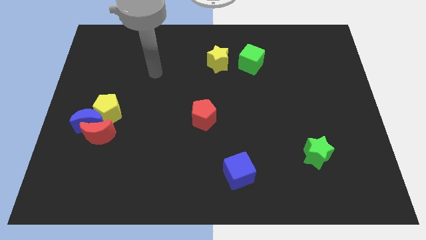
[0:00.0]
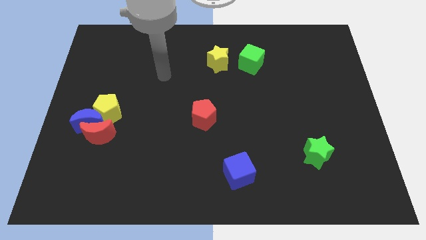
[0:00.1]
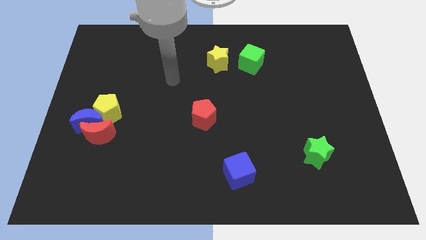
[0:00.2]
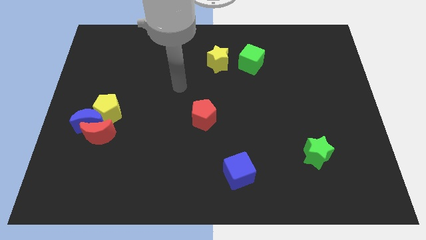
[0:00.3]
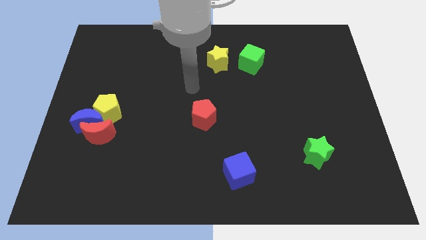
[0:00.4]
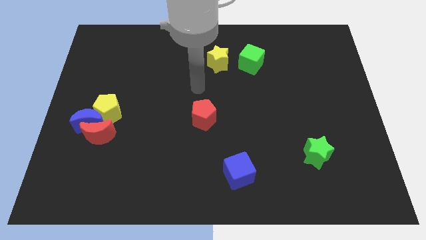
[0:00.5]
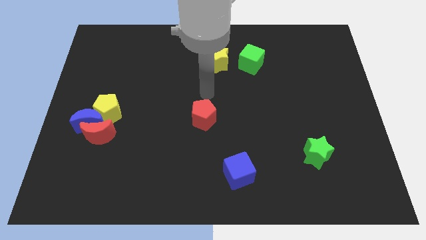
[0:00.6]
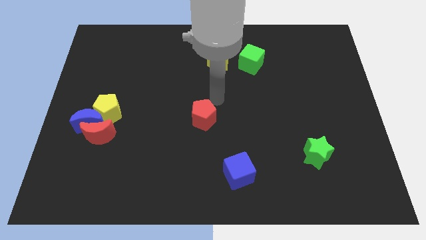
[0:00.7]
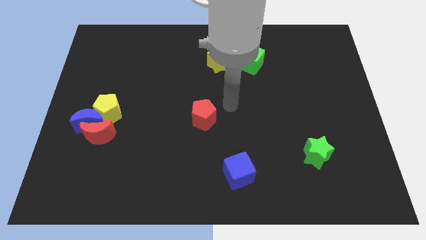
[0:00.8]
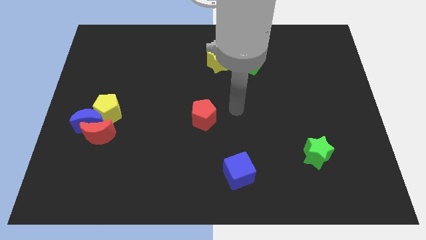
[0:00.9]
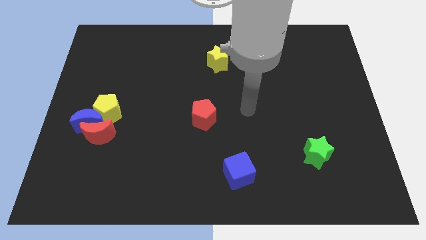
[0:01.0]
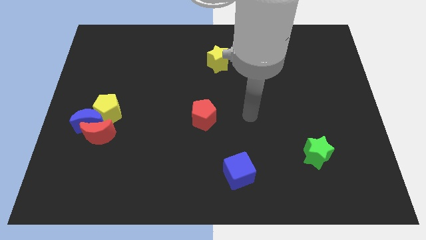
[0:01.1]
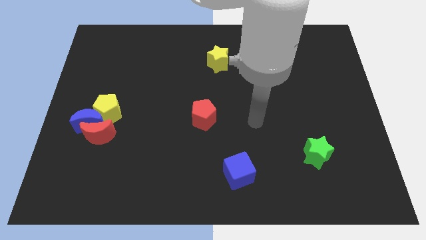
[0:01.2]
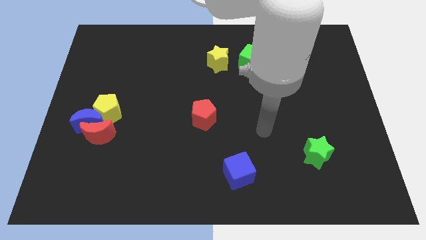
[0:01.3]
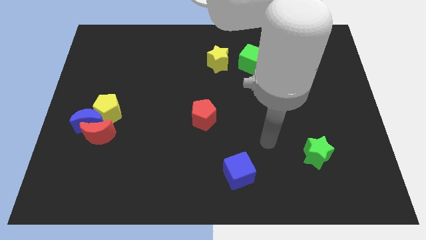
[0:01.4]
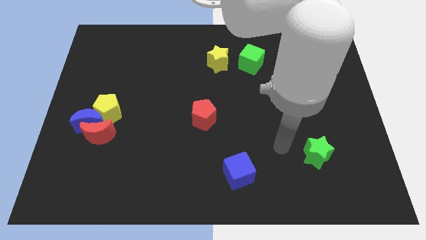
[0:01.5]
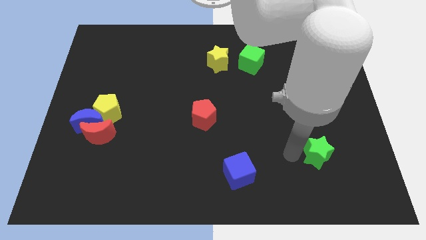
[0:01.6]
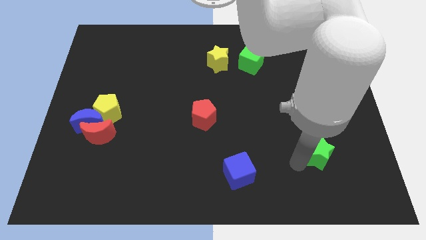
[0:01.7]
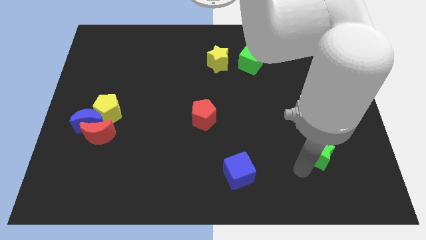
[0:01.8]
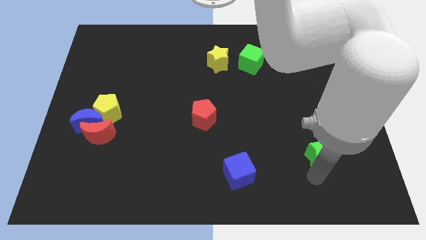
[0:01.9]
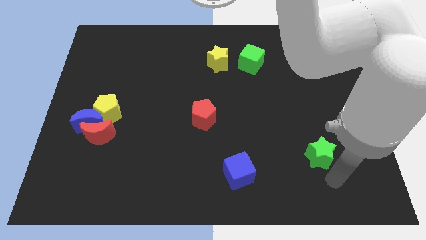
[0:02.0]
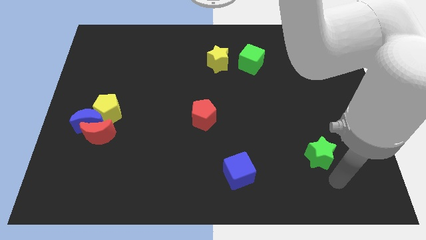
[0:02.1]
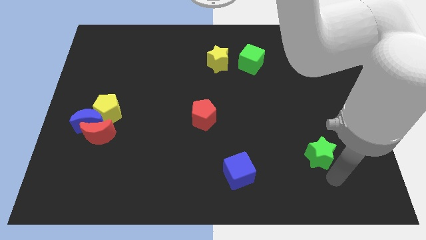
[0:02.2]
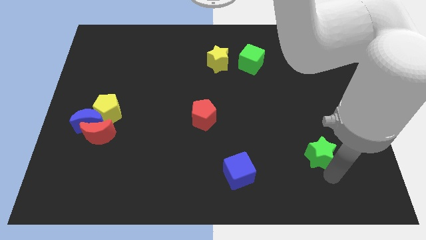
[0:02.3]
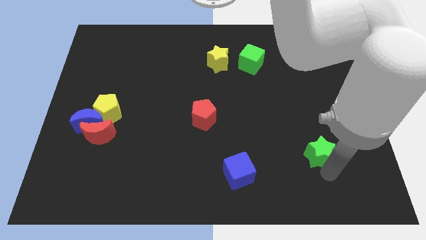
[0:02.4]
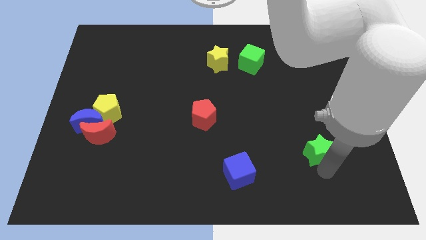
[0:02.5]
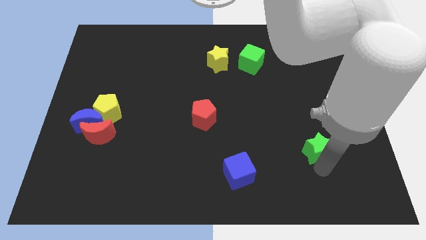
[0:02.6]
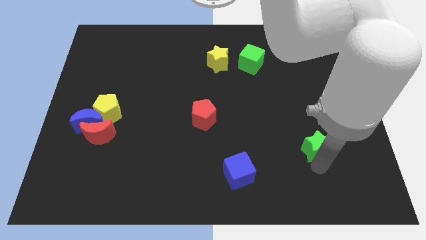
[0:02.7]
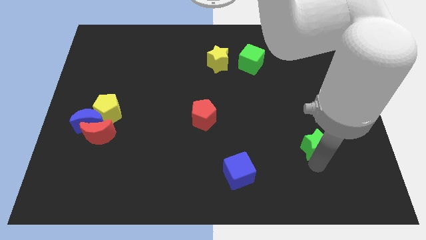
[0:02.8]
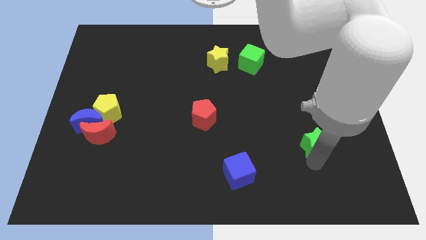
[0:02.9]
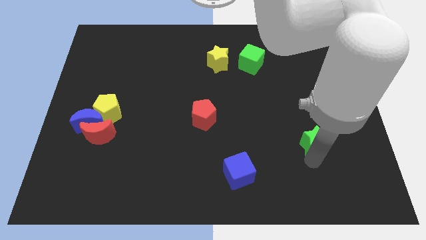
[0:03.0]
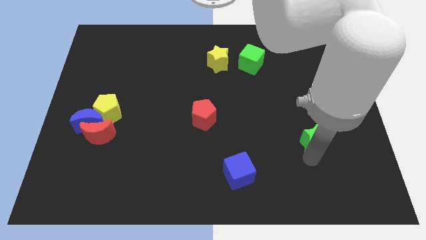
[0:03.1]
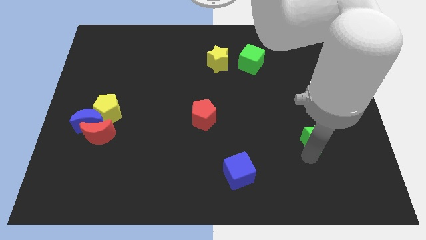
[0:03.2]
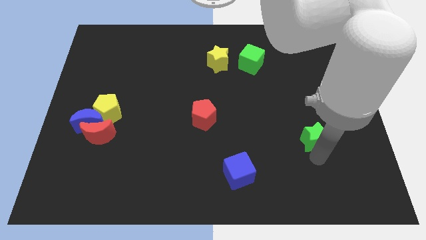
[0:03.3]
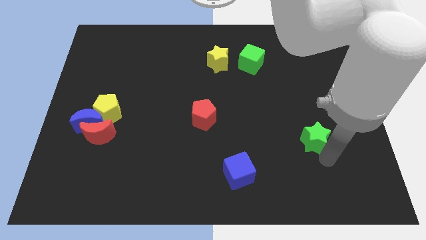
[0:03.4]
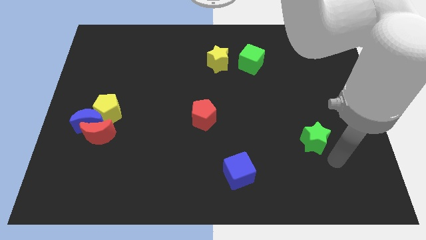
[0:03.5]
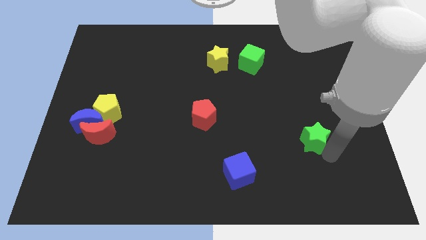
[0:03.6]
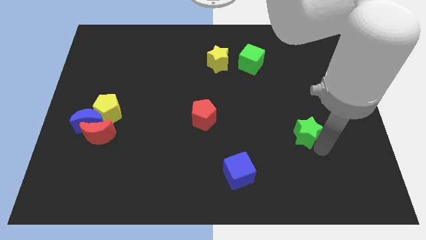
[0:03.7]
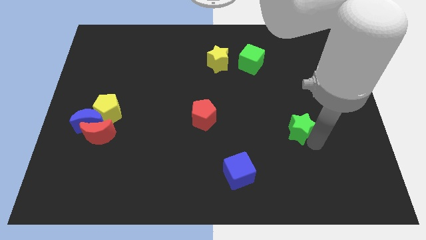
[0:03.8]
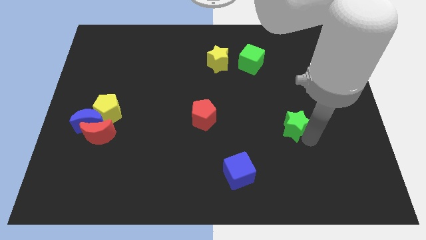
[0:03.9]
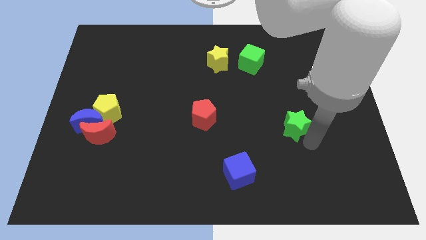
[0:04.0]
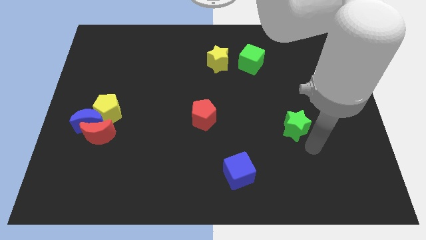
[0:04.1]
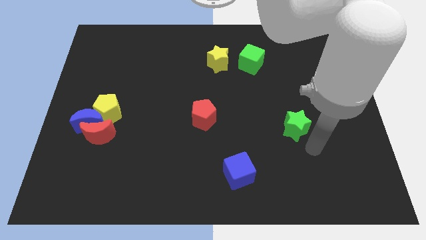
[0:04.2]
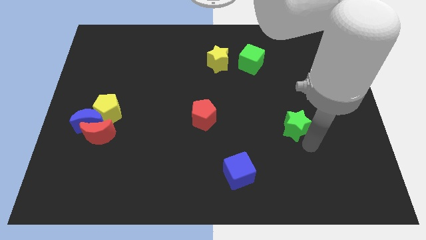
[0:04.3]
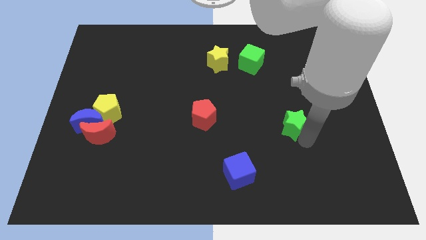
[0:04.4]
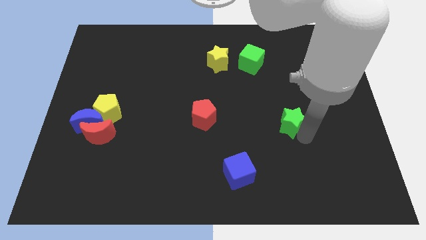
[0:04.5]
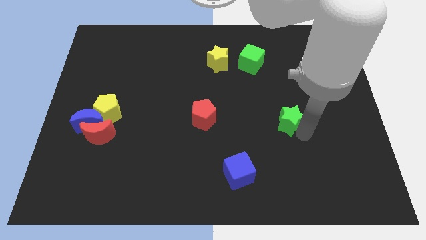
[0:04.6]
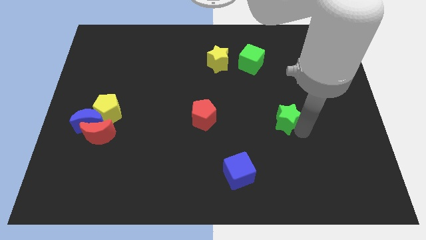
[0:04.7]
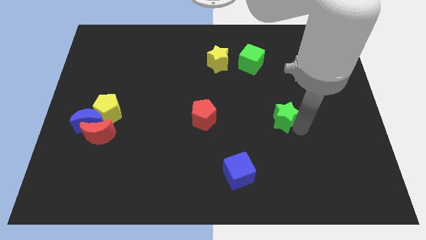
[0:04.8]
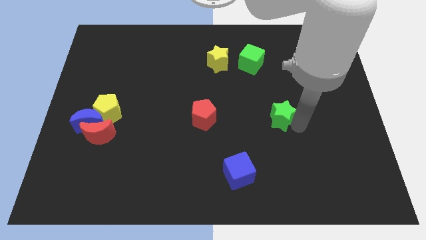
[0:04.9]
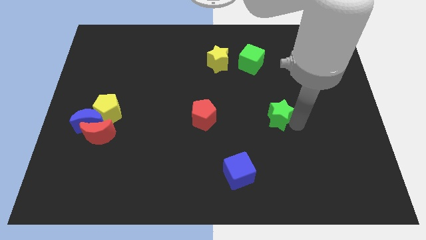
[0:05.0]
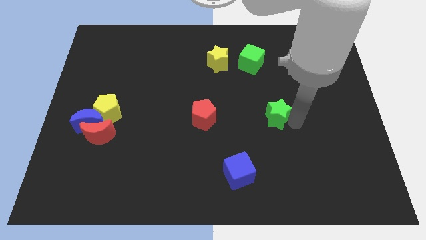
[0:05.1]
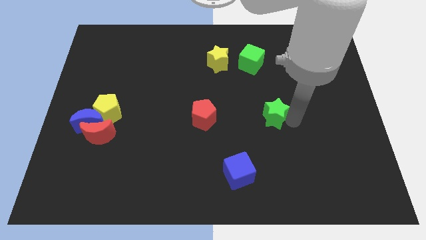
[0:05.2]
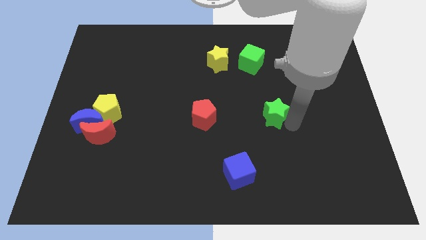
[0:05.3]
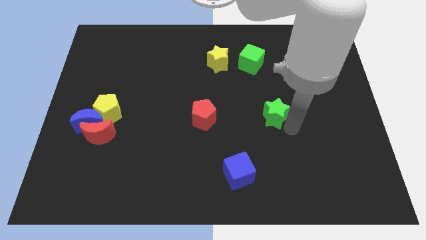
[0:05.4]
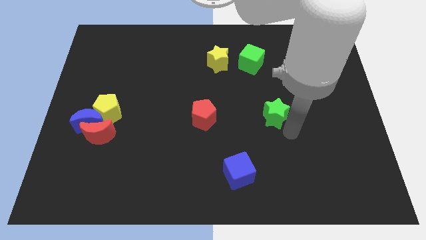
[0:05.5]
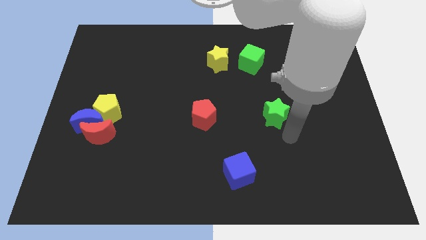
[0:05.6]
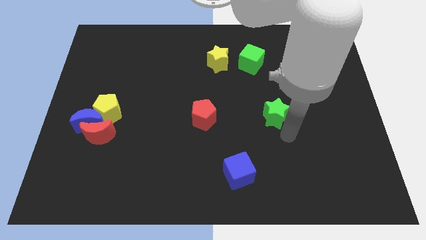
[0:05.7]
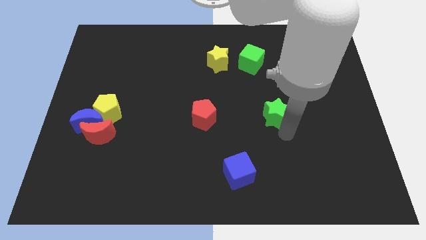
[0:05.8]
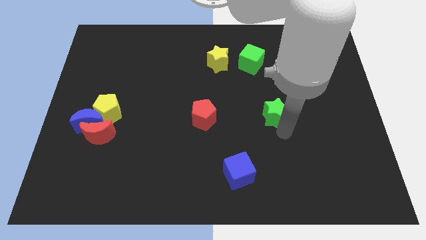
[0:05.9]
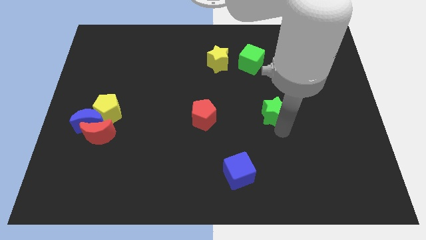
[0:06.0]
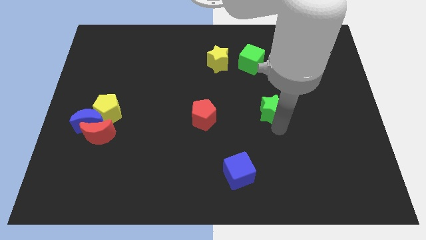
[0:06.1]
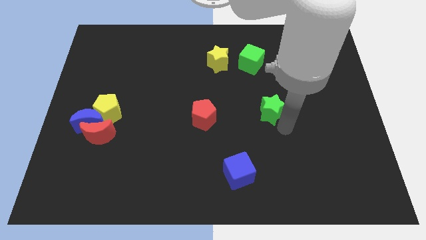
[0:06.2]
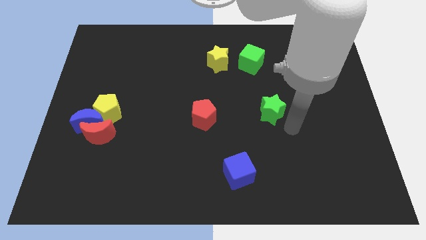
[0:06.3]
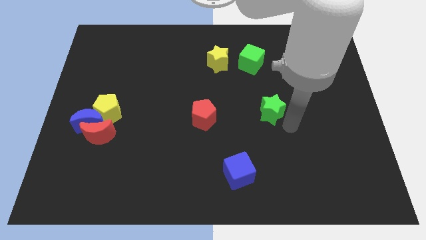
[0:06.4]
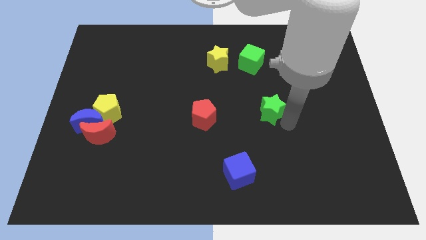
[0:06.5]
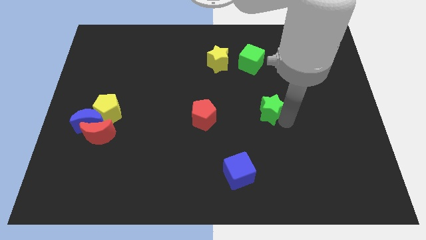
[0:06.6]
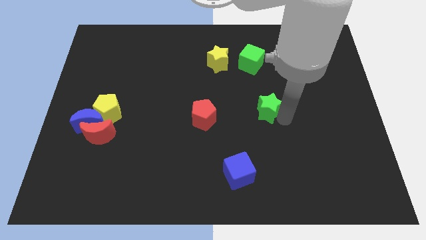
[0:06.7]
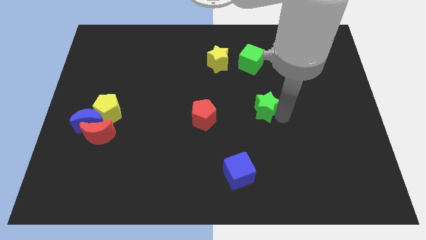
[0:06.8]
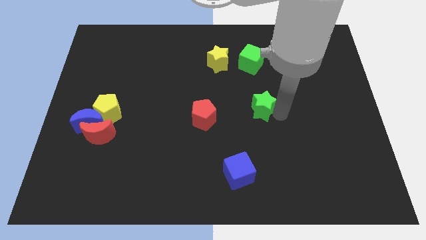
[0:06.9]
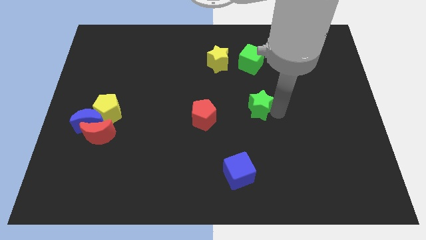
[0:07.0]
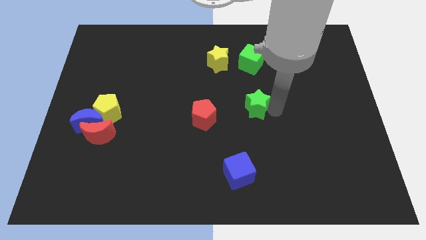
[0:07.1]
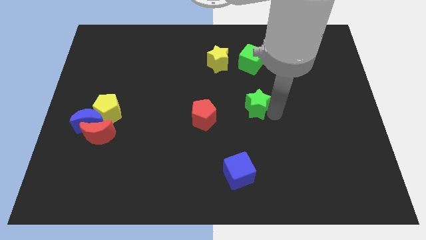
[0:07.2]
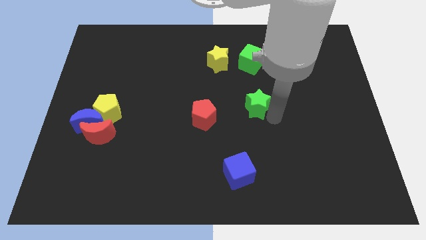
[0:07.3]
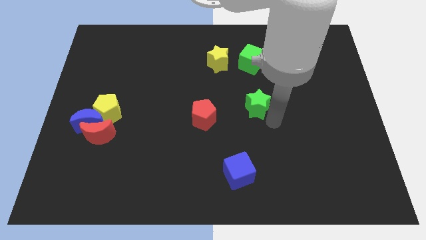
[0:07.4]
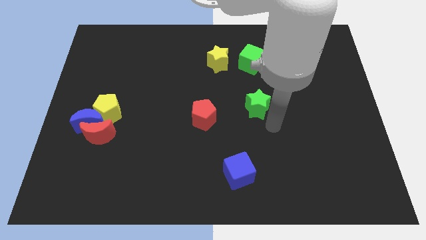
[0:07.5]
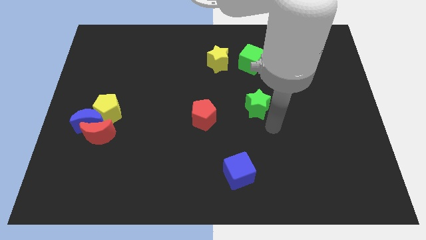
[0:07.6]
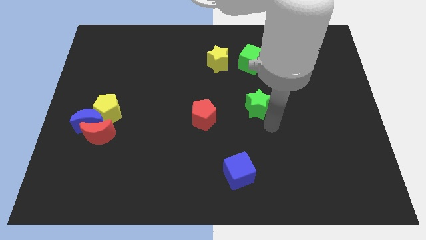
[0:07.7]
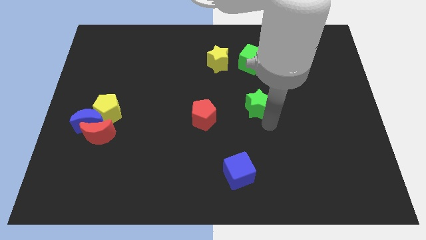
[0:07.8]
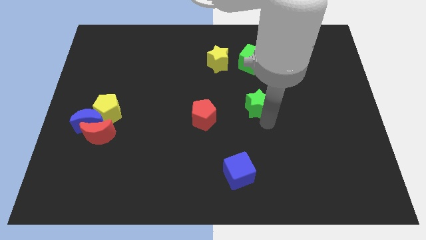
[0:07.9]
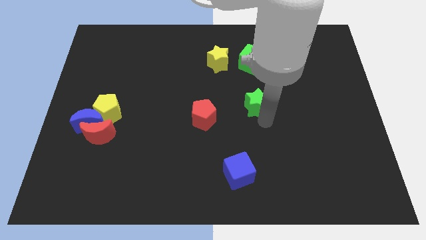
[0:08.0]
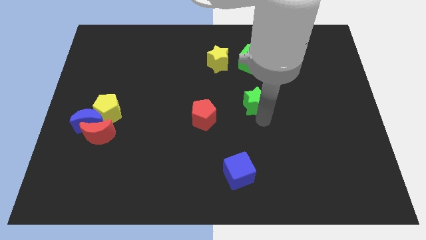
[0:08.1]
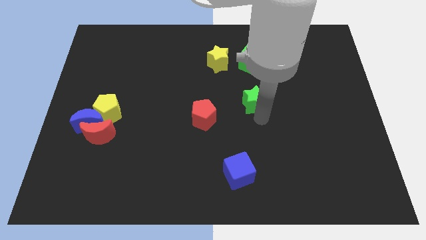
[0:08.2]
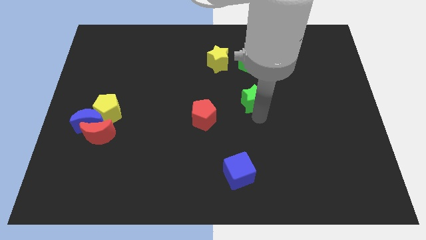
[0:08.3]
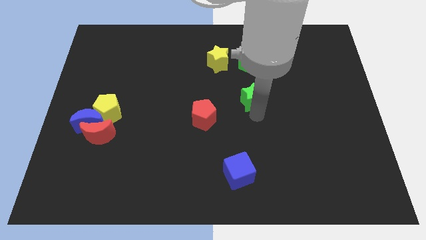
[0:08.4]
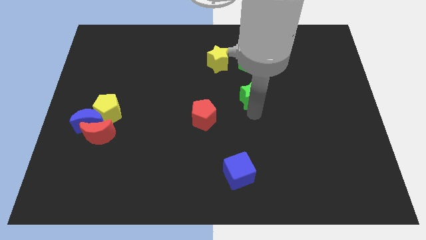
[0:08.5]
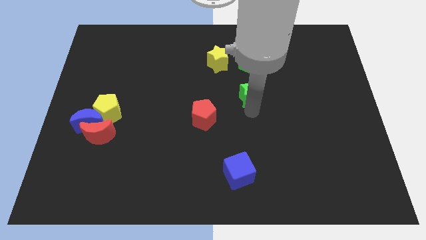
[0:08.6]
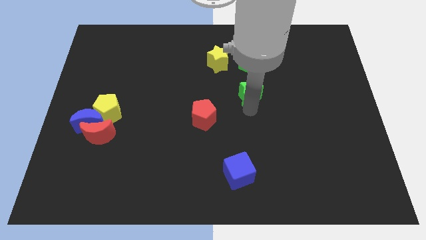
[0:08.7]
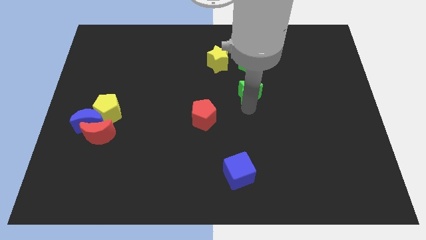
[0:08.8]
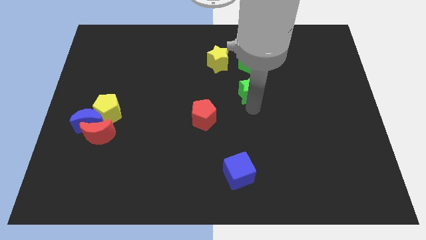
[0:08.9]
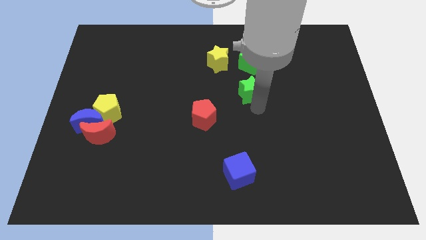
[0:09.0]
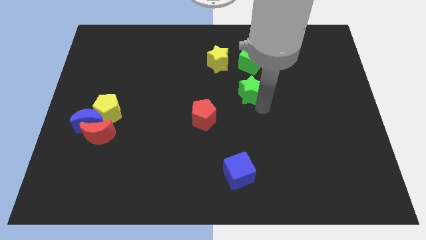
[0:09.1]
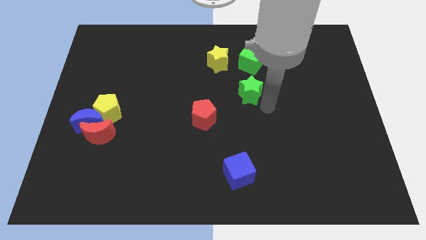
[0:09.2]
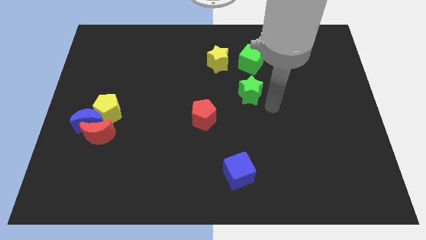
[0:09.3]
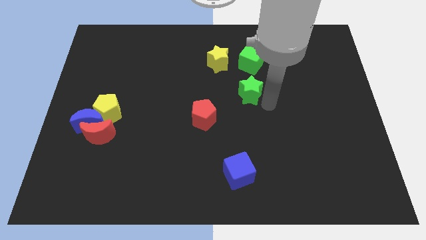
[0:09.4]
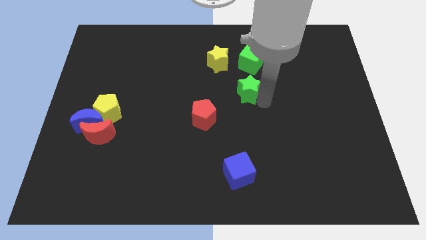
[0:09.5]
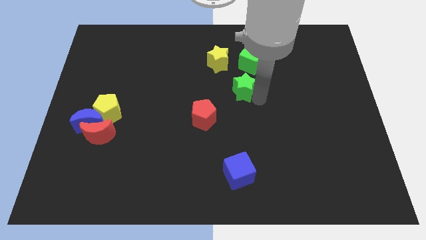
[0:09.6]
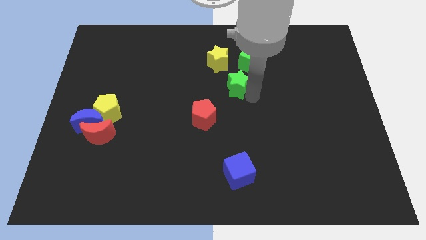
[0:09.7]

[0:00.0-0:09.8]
push the green star to the bottom left side of the green cube
